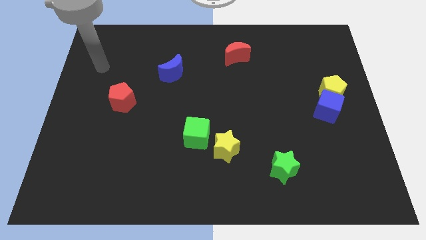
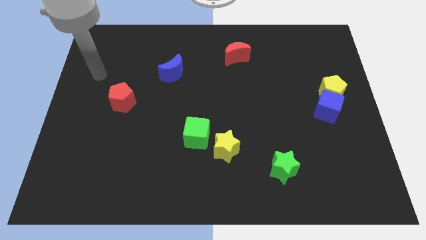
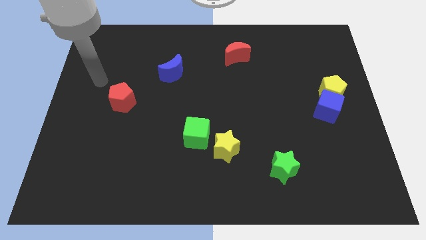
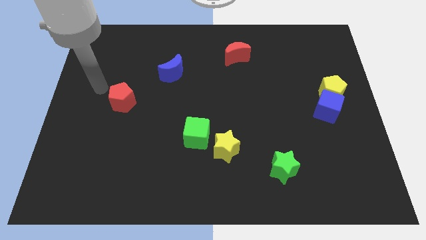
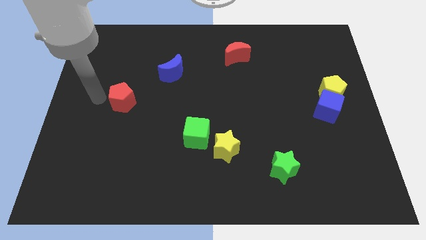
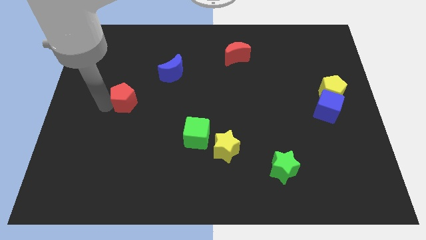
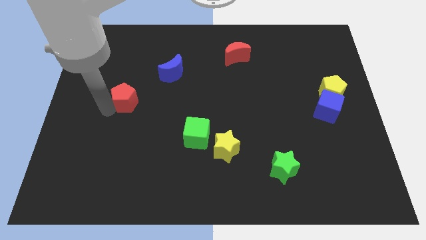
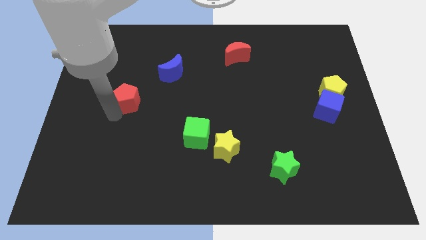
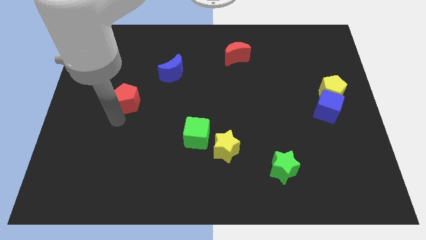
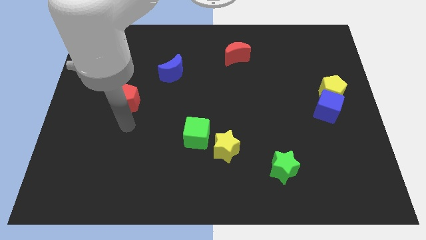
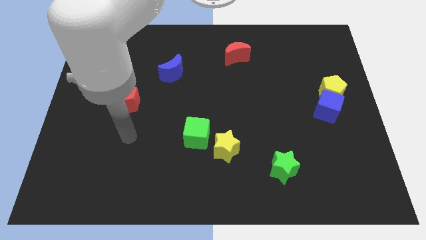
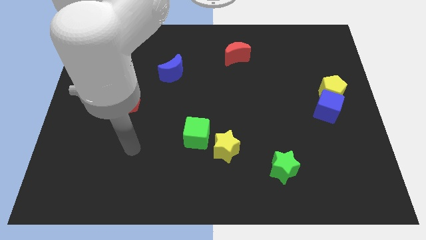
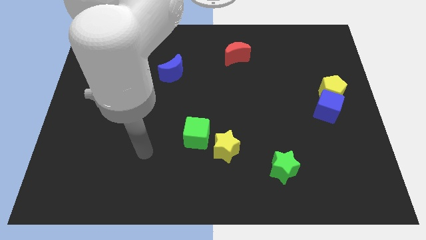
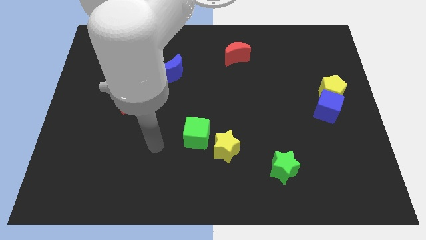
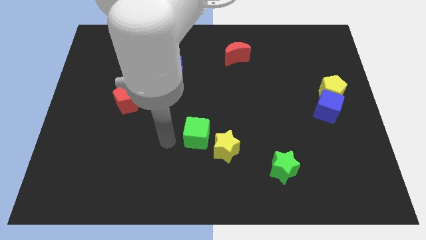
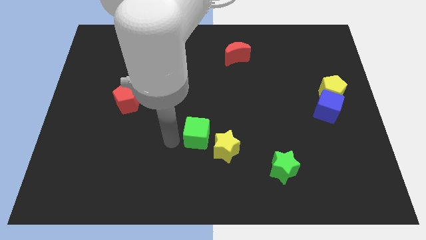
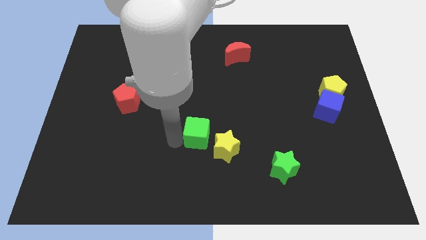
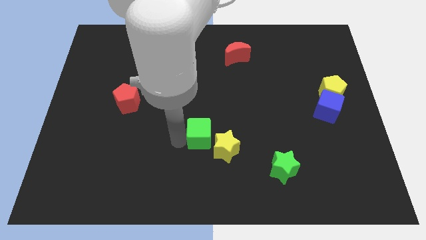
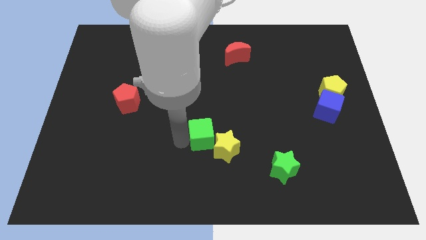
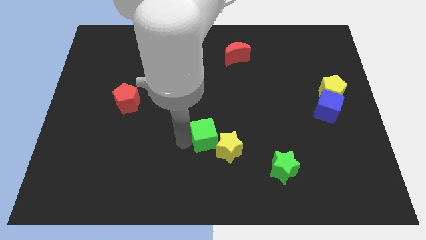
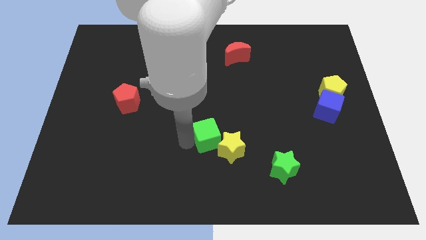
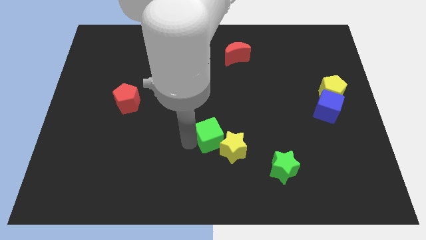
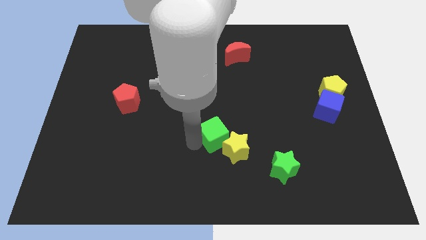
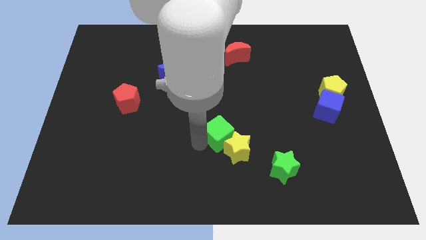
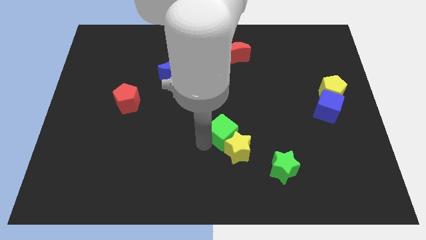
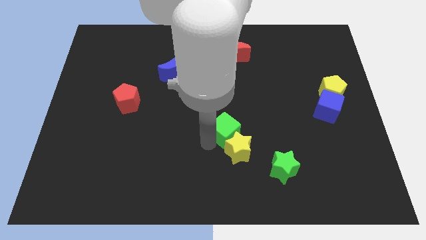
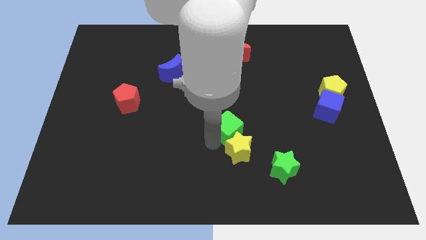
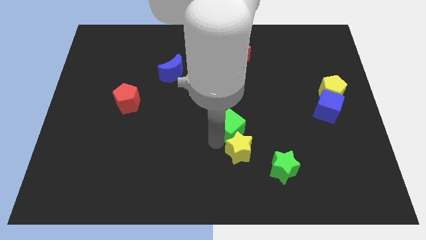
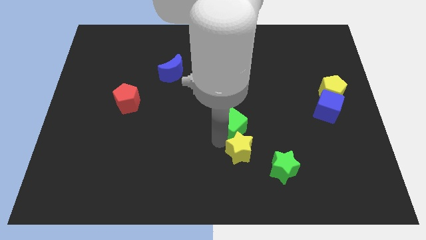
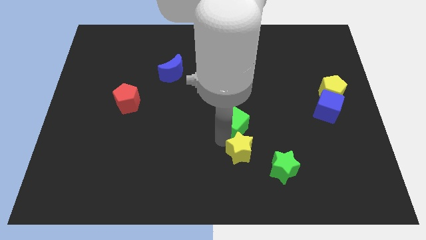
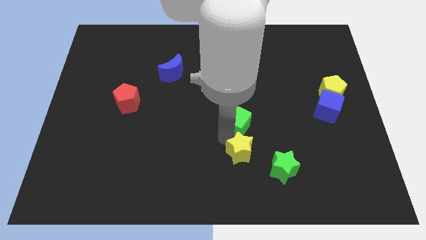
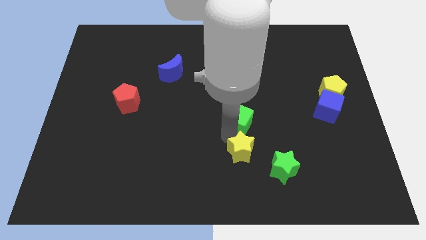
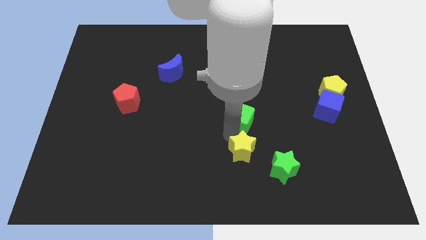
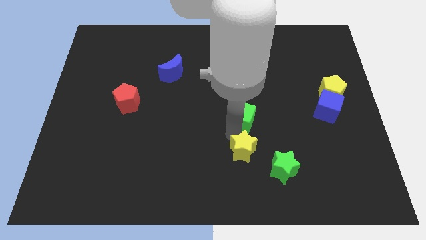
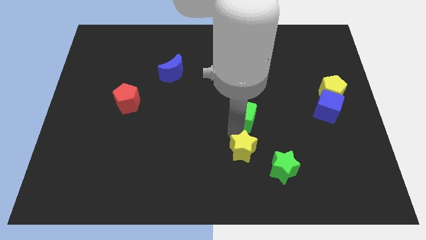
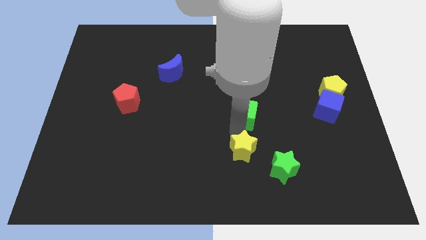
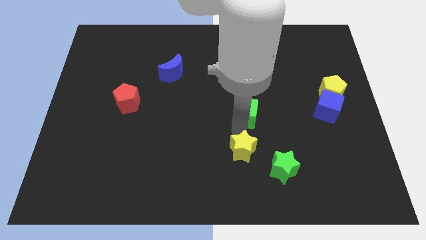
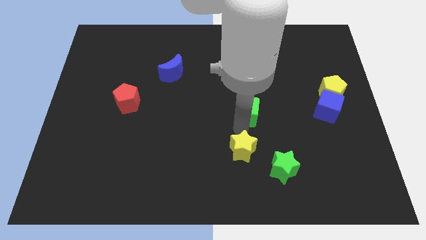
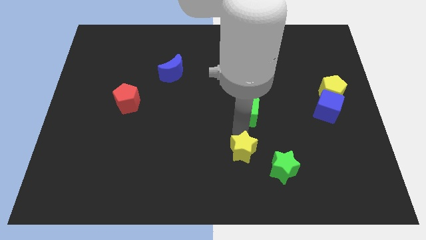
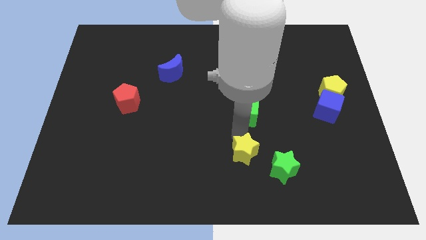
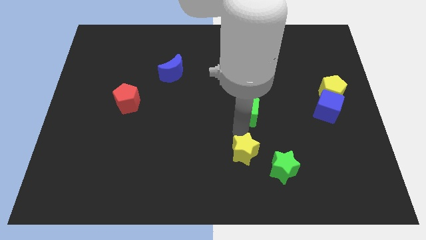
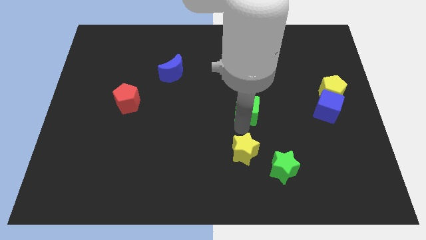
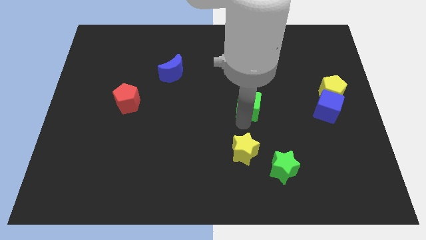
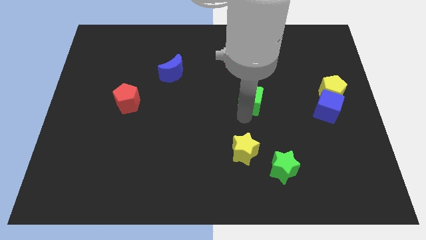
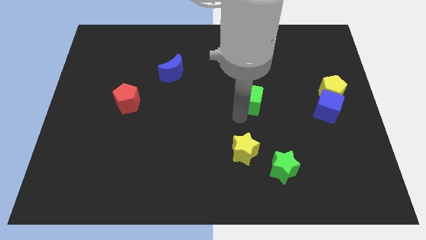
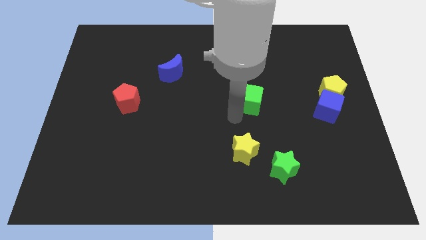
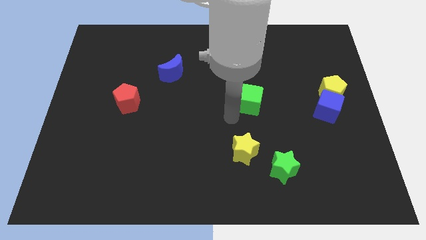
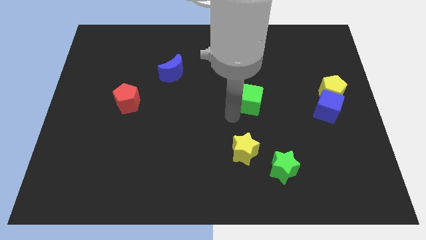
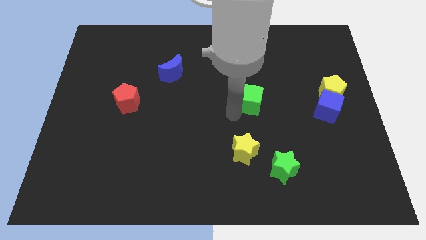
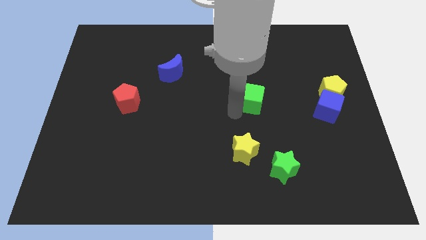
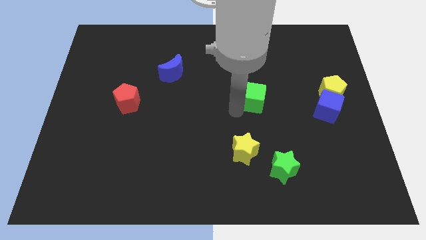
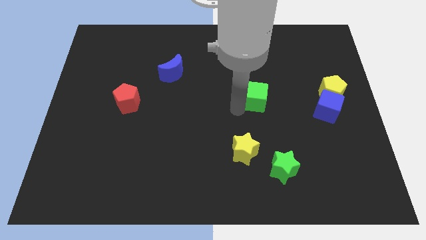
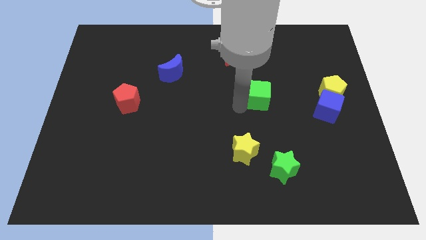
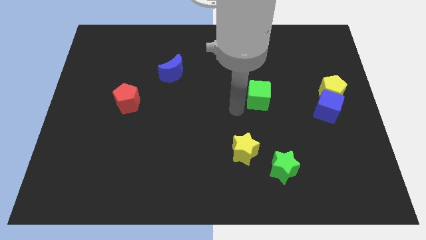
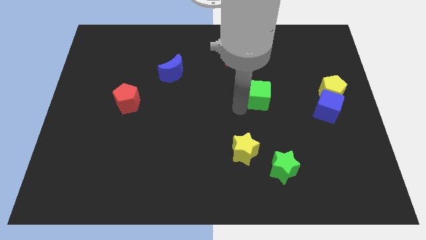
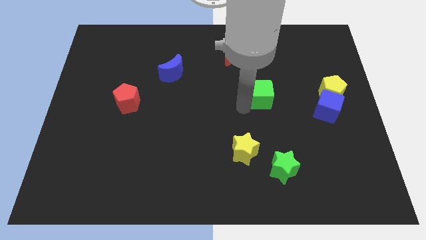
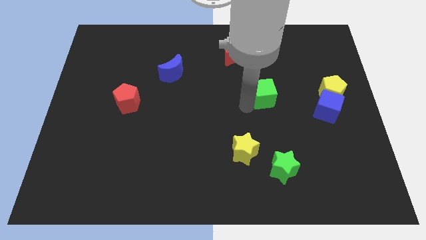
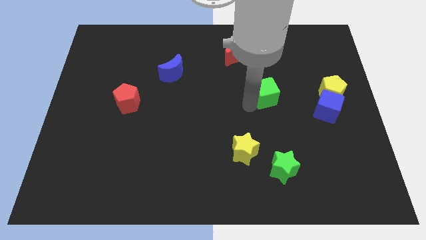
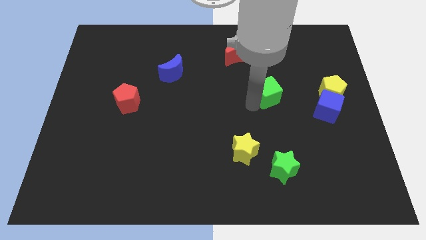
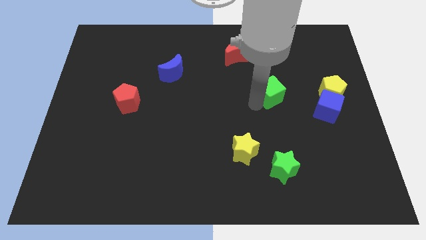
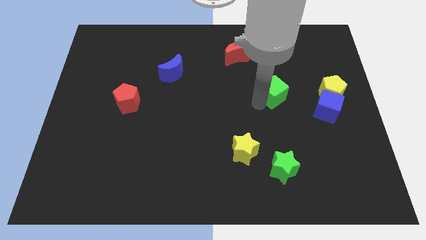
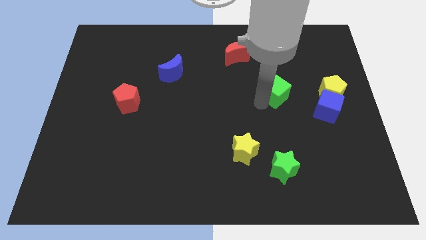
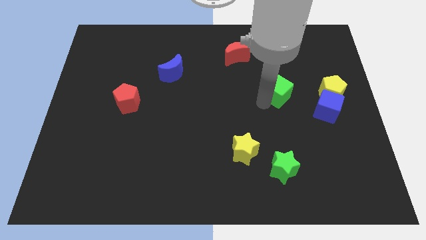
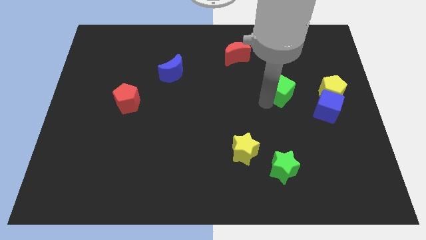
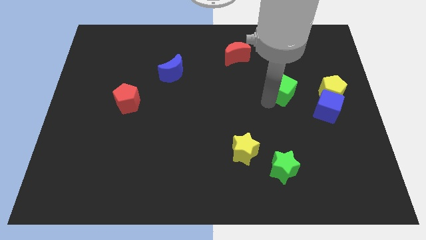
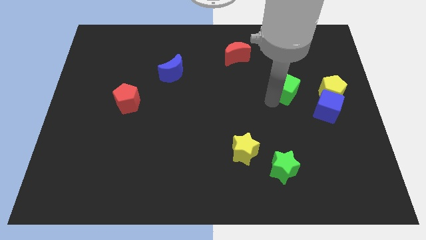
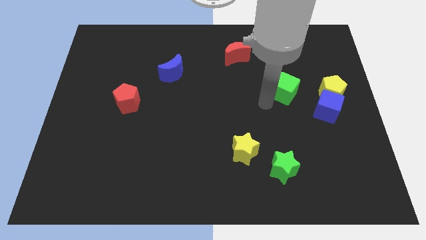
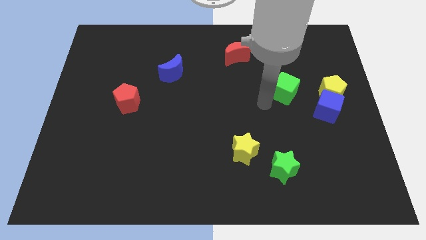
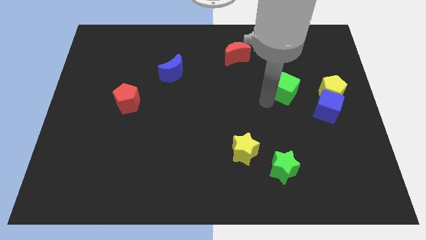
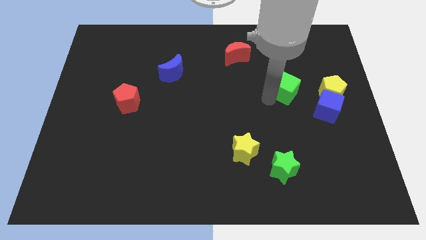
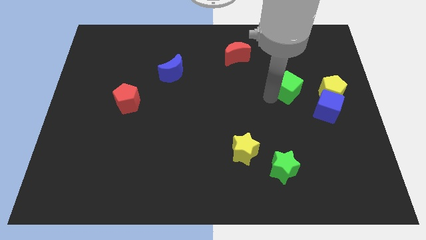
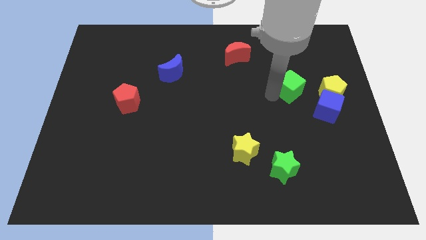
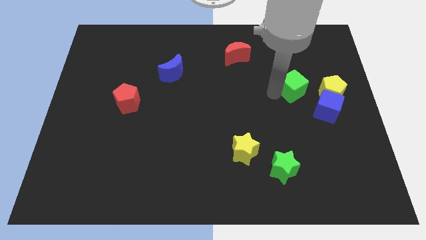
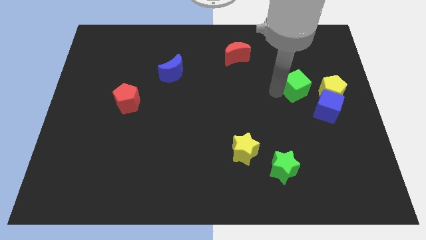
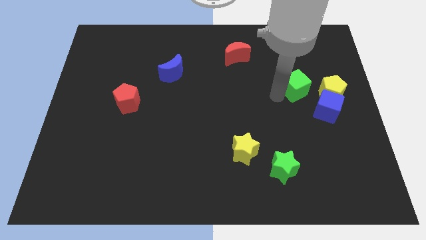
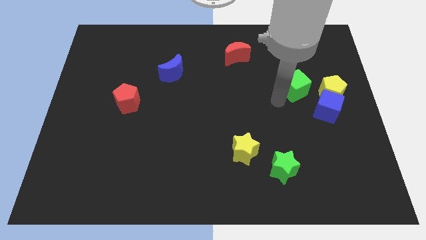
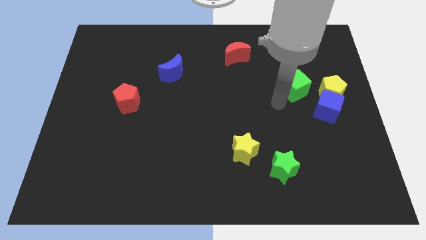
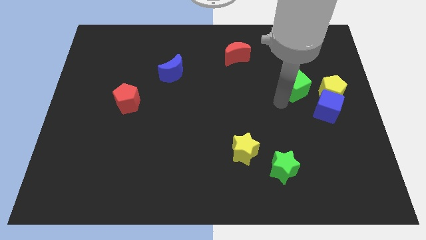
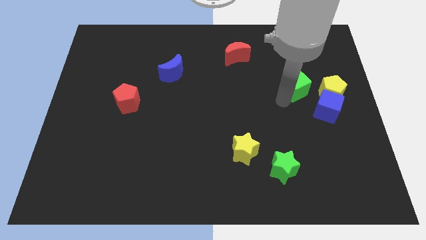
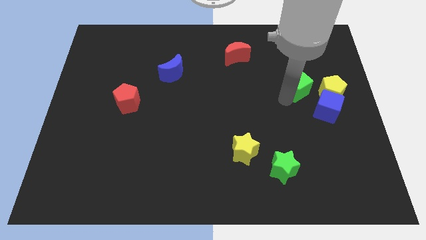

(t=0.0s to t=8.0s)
push the green cube to the top left side of the yellow pentagon
